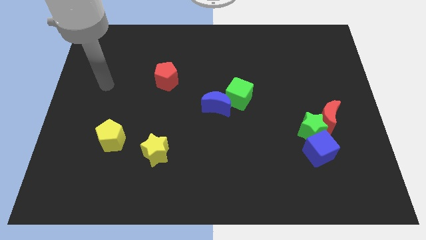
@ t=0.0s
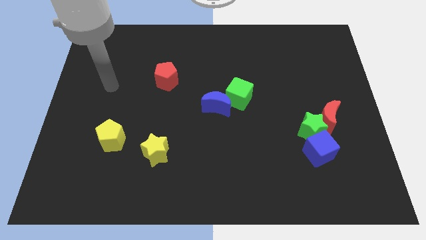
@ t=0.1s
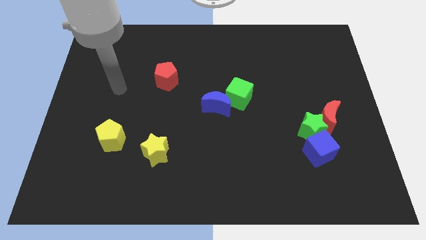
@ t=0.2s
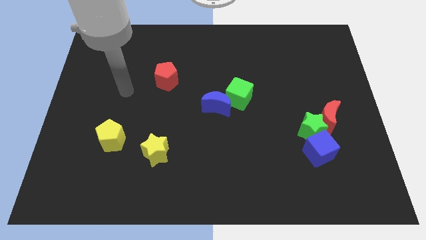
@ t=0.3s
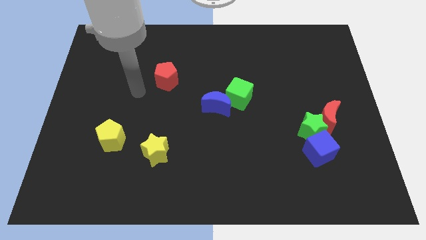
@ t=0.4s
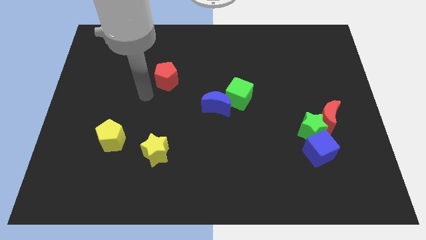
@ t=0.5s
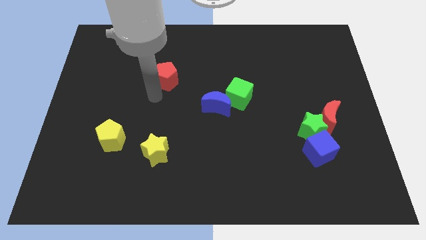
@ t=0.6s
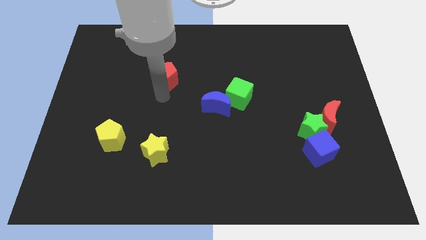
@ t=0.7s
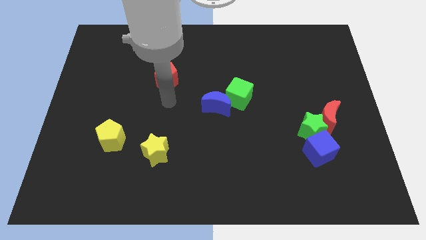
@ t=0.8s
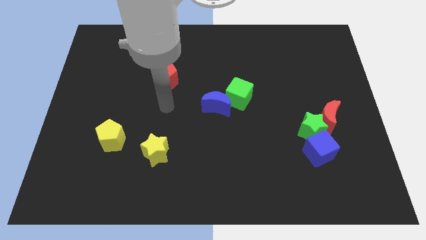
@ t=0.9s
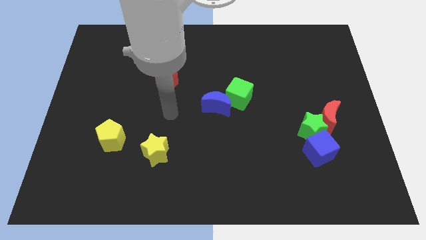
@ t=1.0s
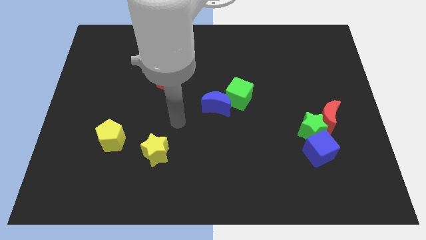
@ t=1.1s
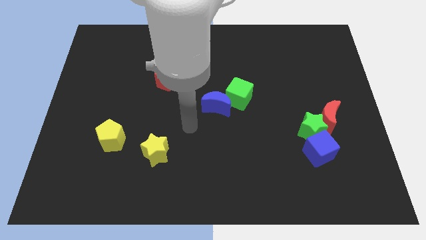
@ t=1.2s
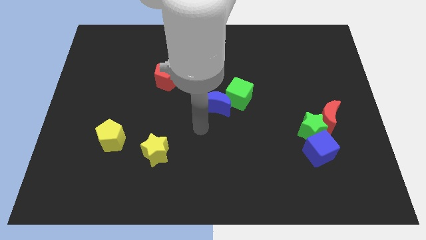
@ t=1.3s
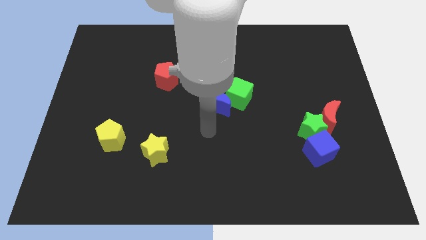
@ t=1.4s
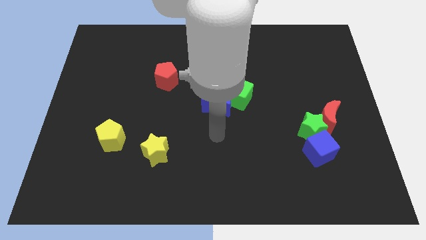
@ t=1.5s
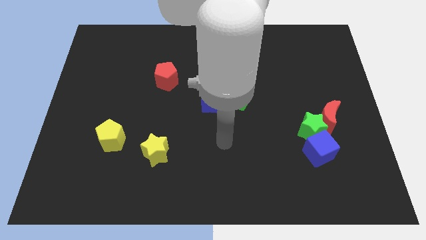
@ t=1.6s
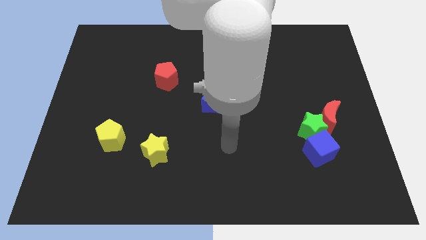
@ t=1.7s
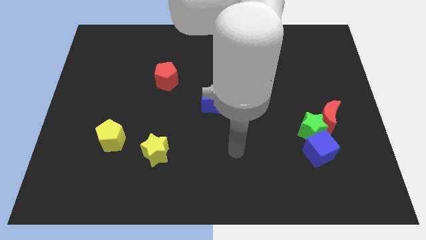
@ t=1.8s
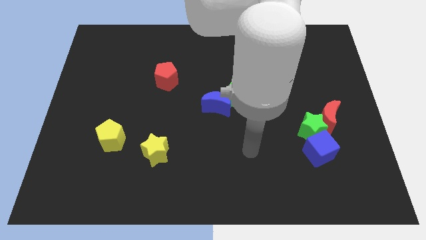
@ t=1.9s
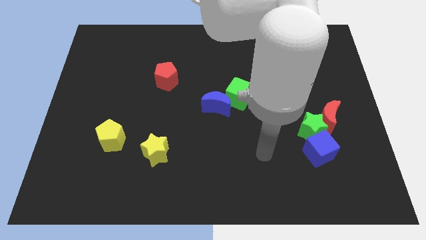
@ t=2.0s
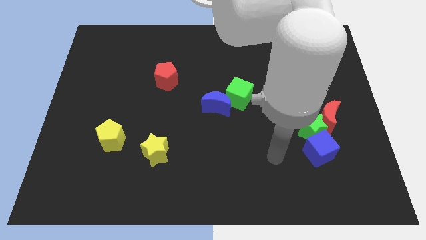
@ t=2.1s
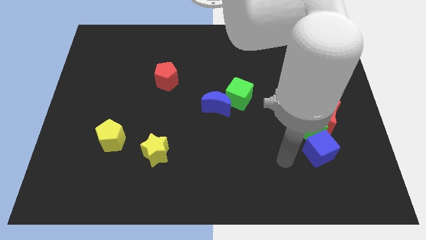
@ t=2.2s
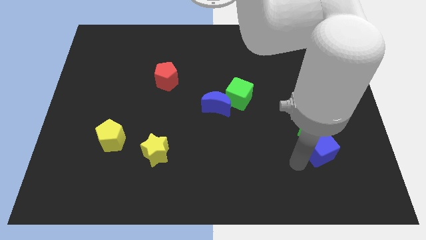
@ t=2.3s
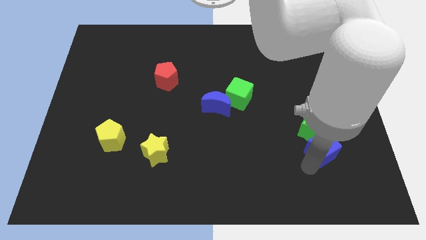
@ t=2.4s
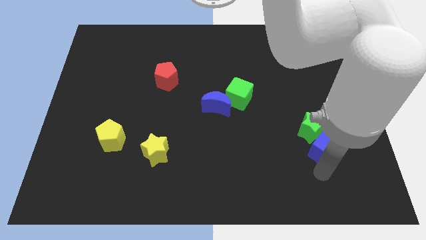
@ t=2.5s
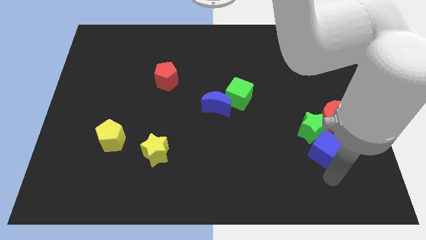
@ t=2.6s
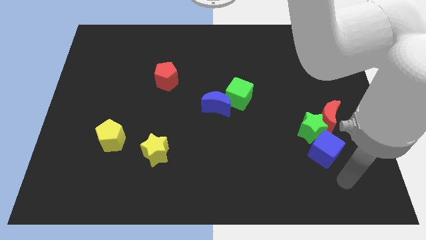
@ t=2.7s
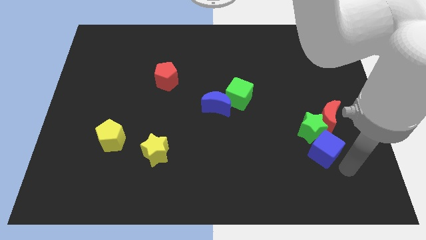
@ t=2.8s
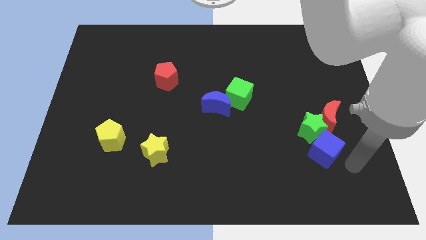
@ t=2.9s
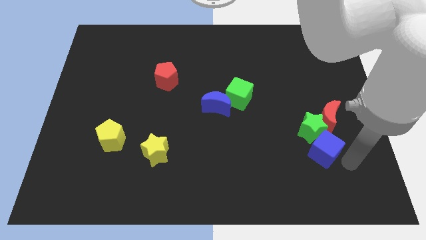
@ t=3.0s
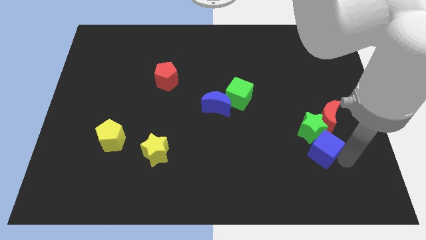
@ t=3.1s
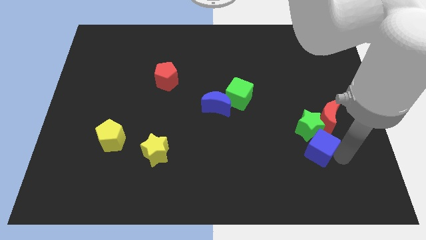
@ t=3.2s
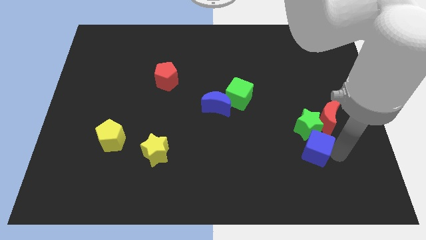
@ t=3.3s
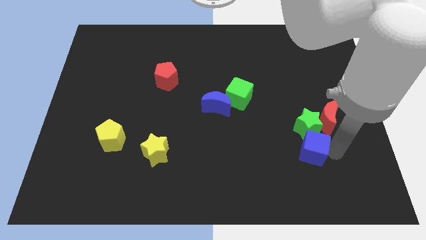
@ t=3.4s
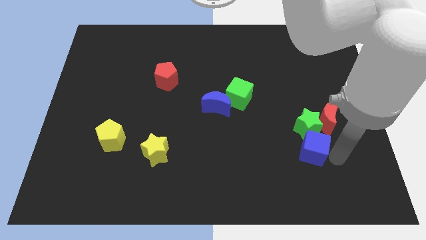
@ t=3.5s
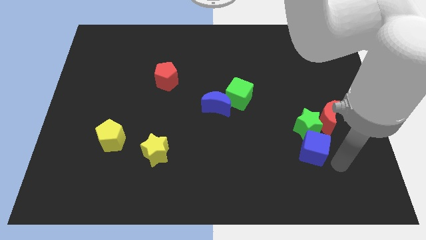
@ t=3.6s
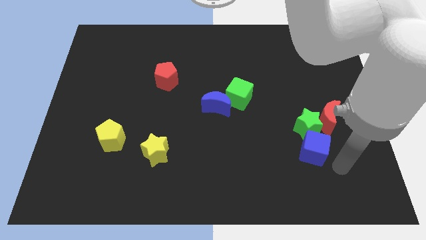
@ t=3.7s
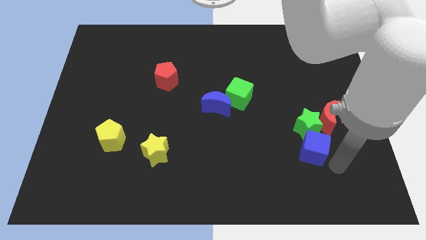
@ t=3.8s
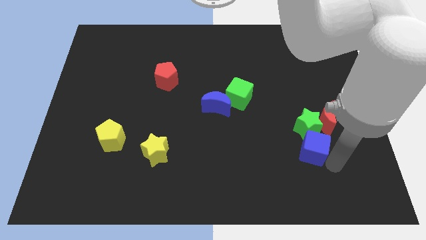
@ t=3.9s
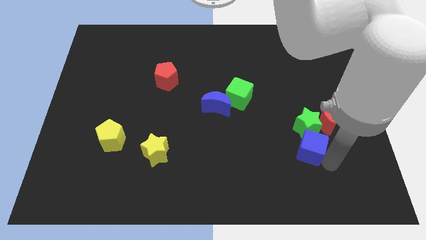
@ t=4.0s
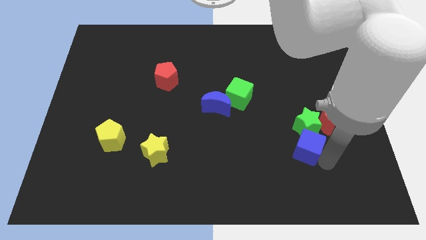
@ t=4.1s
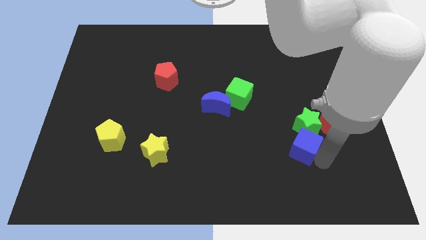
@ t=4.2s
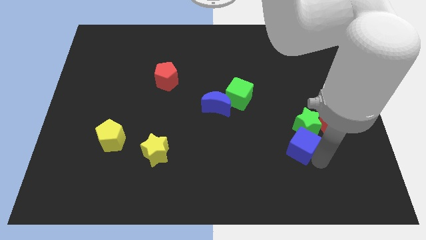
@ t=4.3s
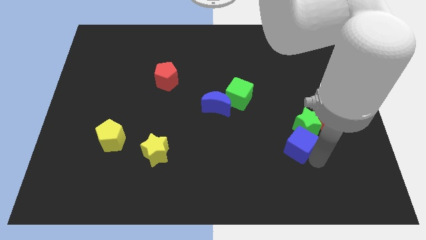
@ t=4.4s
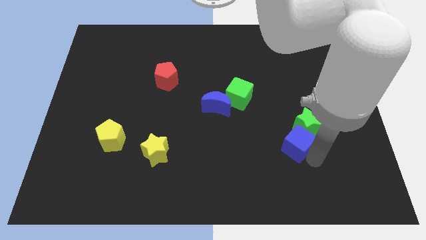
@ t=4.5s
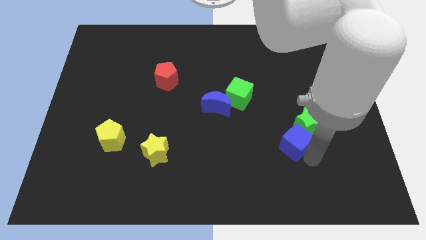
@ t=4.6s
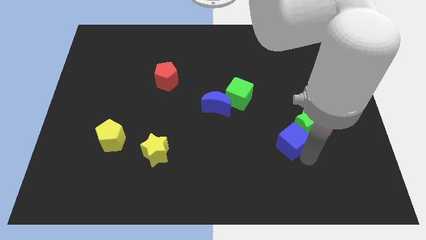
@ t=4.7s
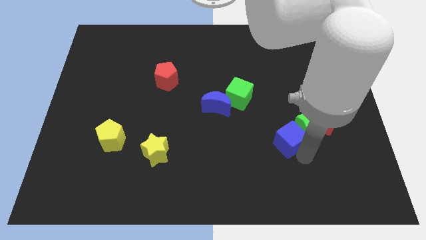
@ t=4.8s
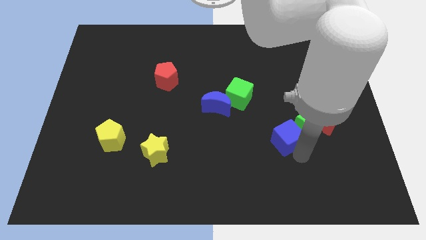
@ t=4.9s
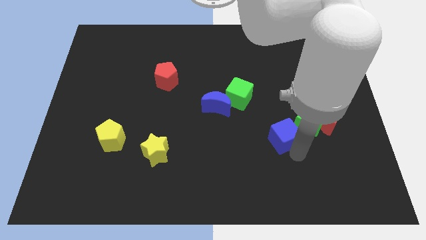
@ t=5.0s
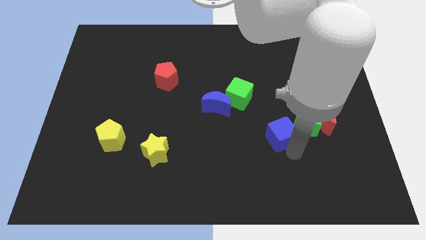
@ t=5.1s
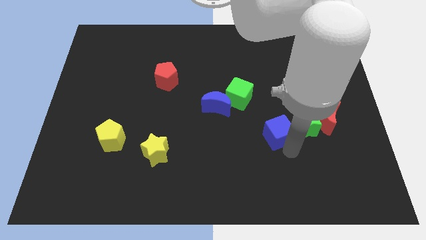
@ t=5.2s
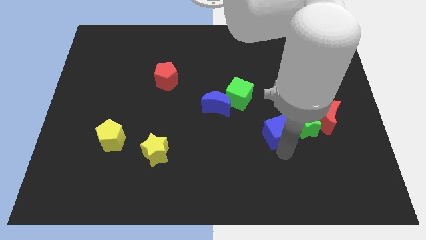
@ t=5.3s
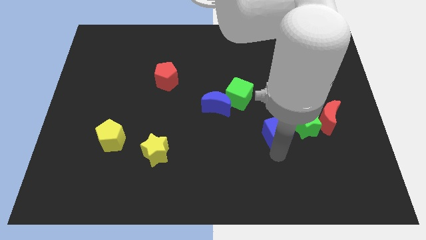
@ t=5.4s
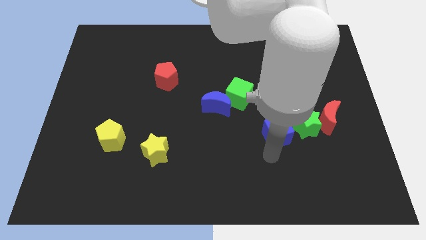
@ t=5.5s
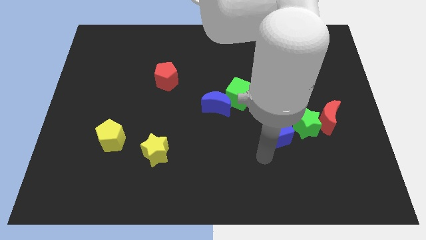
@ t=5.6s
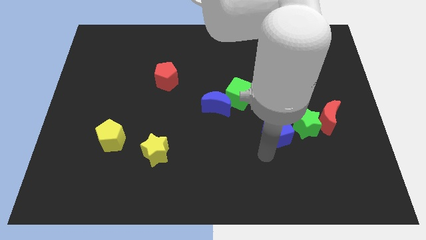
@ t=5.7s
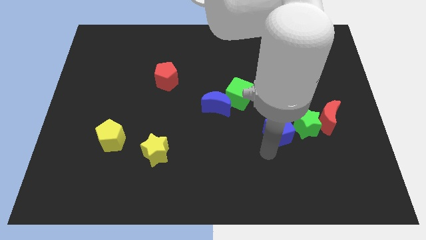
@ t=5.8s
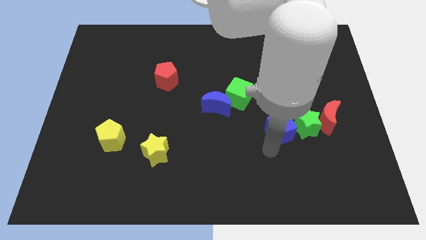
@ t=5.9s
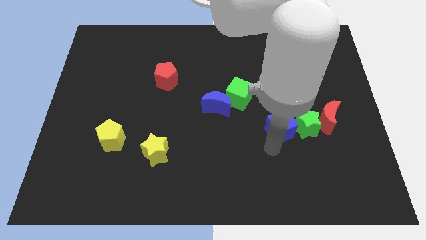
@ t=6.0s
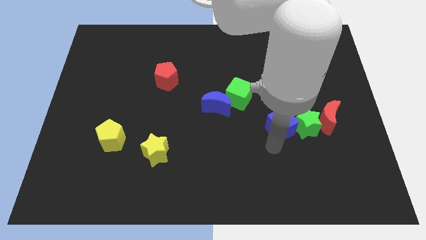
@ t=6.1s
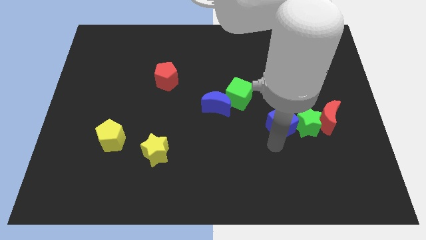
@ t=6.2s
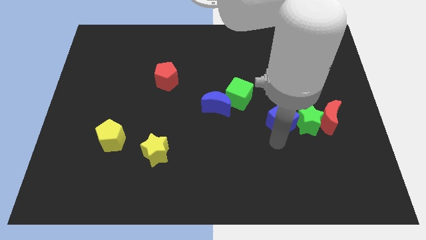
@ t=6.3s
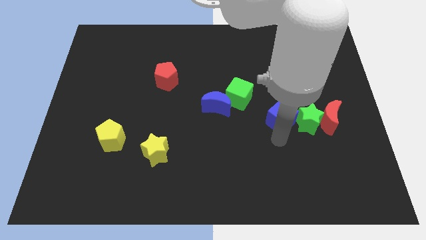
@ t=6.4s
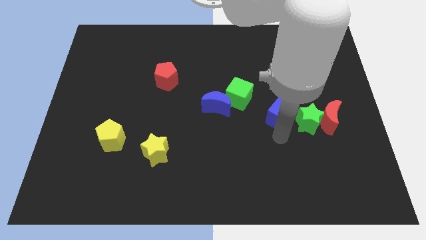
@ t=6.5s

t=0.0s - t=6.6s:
slightly move the blue cube up

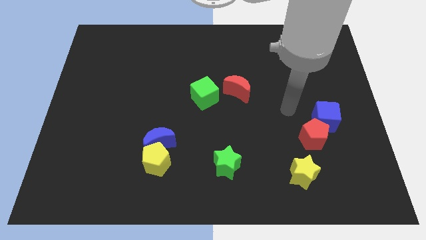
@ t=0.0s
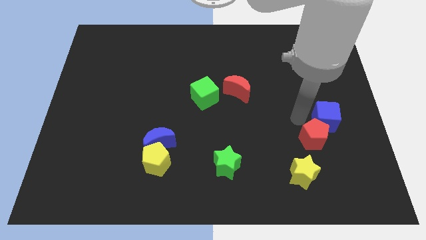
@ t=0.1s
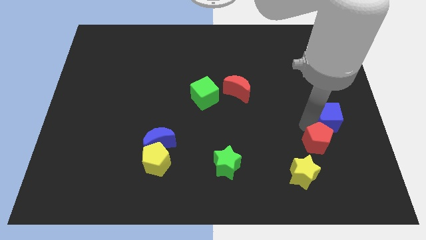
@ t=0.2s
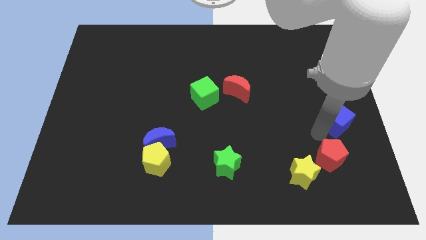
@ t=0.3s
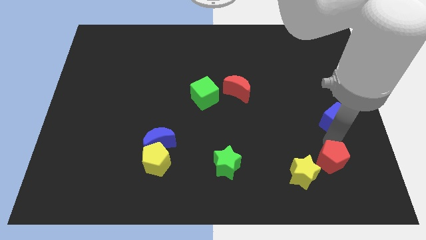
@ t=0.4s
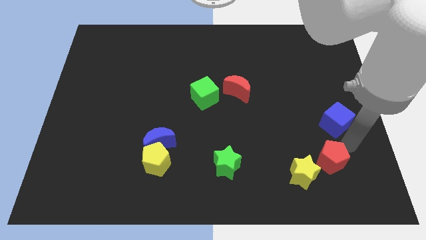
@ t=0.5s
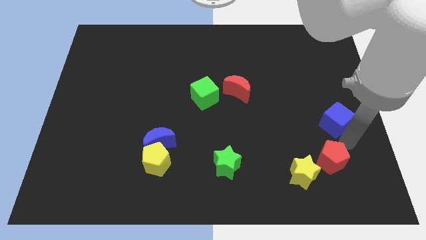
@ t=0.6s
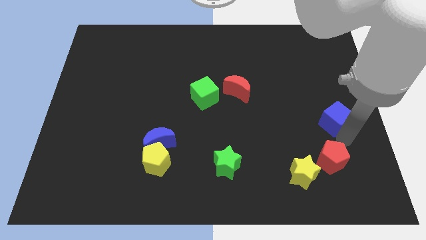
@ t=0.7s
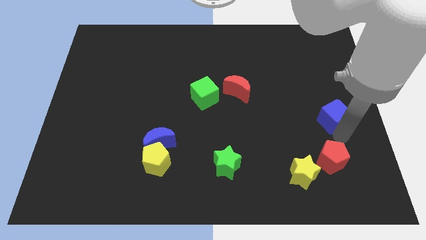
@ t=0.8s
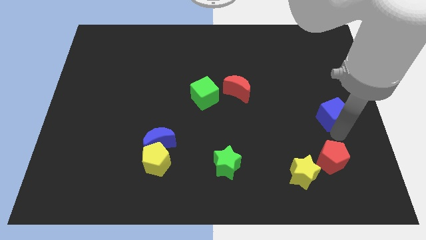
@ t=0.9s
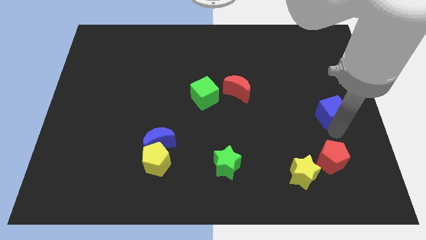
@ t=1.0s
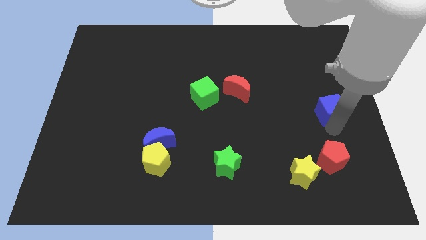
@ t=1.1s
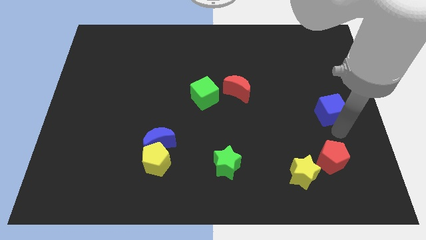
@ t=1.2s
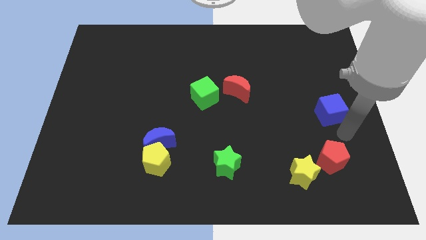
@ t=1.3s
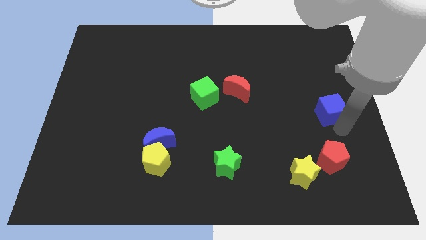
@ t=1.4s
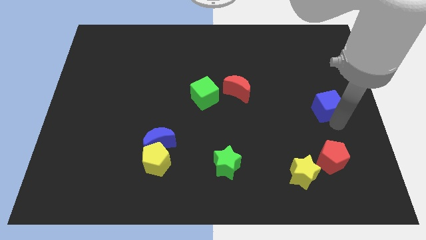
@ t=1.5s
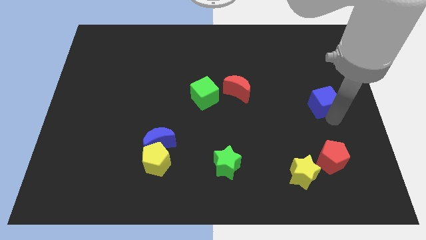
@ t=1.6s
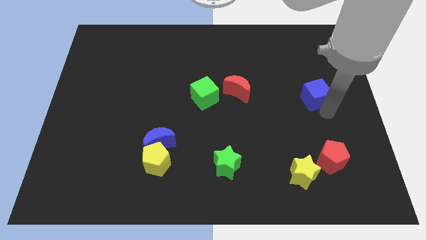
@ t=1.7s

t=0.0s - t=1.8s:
push the blue cube upwards a bit
